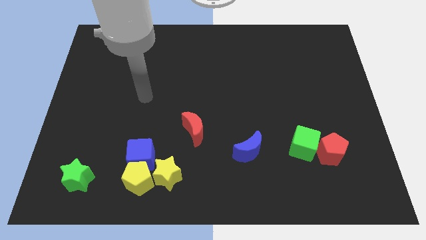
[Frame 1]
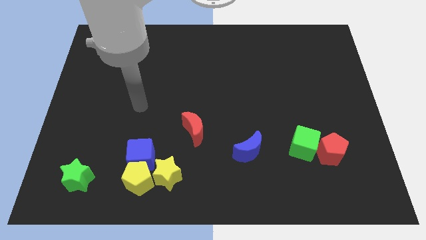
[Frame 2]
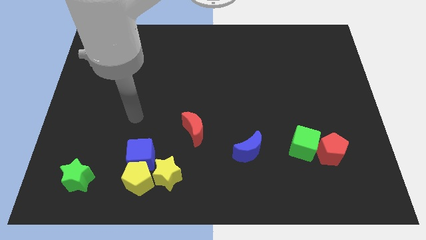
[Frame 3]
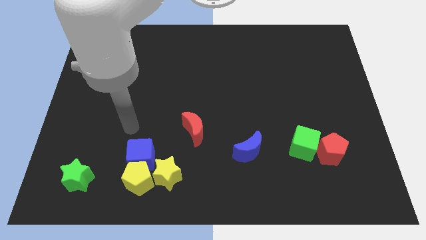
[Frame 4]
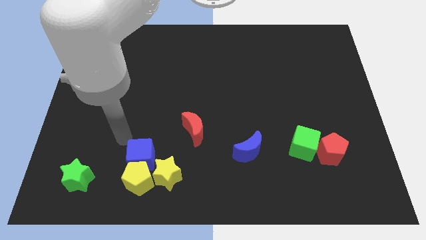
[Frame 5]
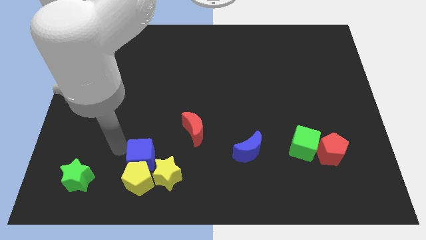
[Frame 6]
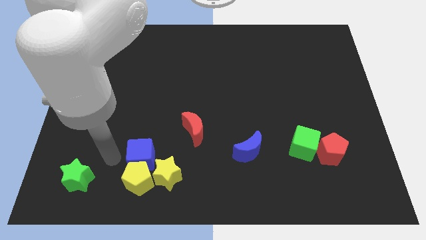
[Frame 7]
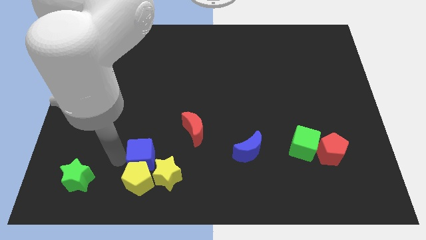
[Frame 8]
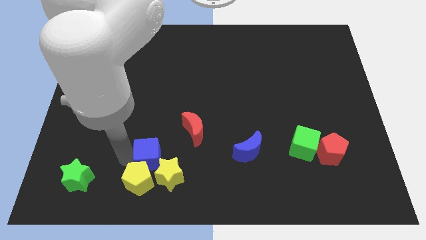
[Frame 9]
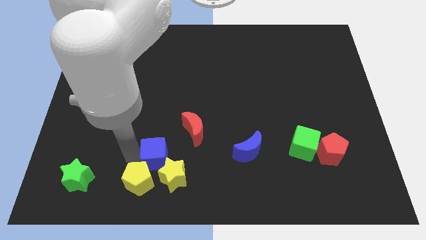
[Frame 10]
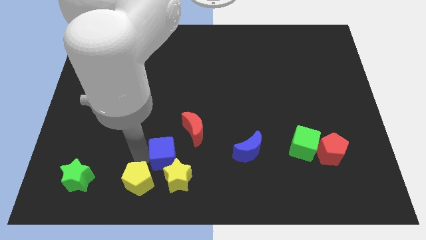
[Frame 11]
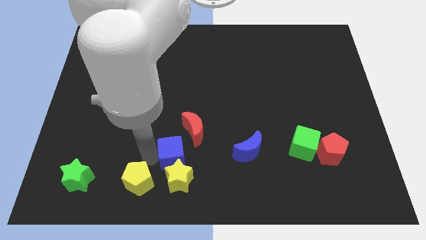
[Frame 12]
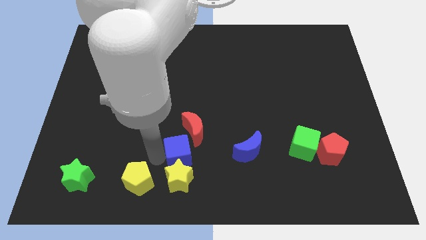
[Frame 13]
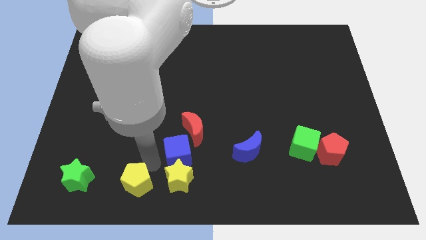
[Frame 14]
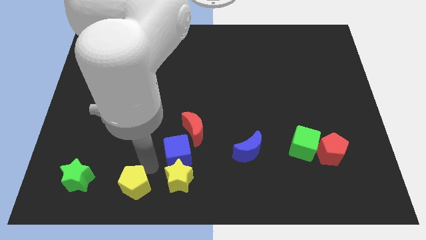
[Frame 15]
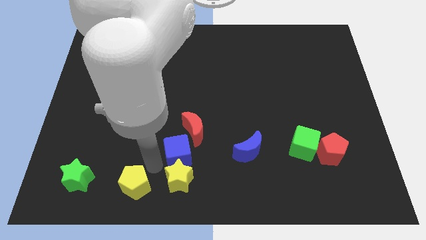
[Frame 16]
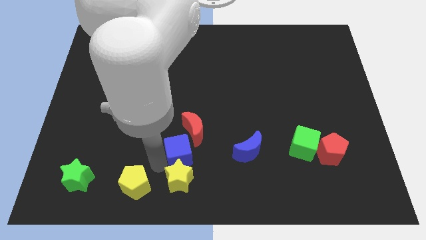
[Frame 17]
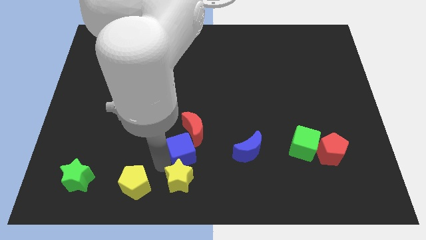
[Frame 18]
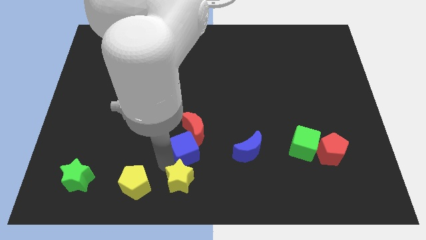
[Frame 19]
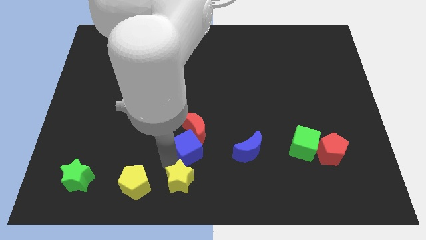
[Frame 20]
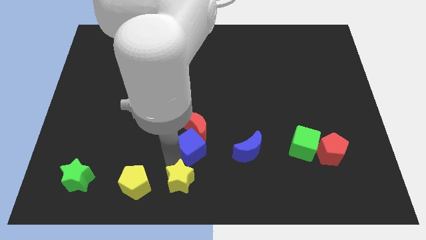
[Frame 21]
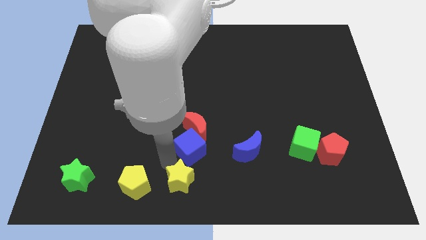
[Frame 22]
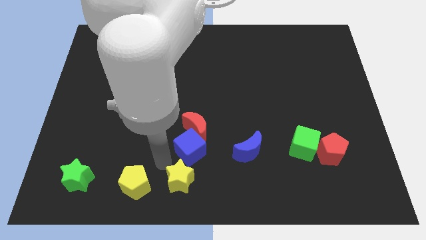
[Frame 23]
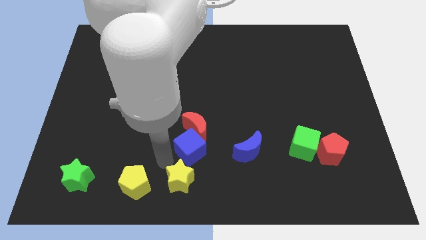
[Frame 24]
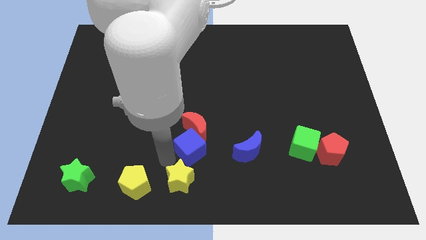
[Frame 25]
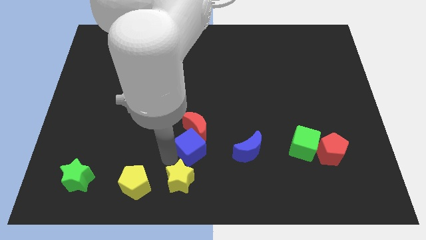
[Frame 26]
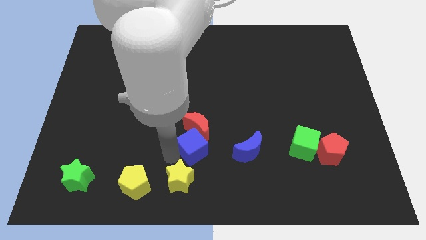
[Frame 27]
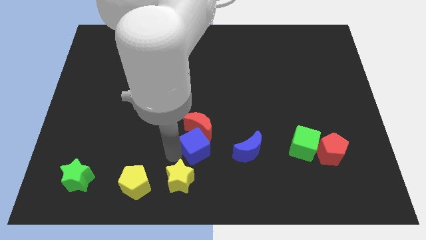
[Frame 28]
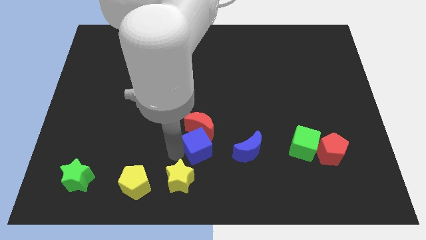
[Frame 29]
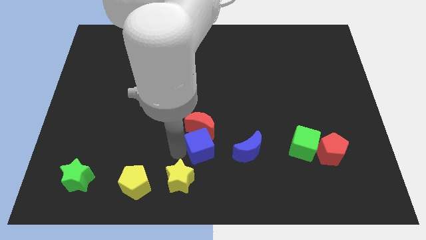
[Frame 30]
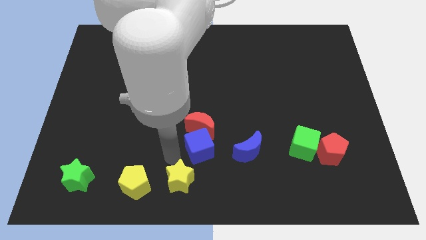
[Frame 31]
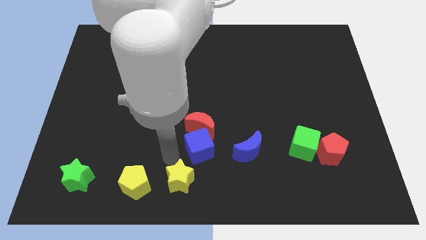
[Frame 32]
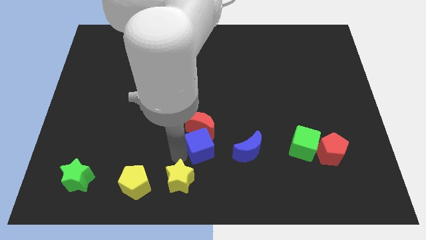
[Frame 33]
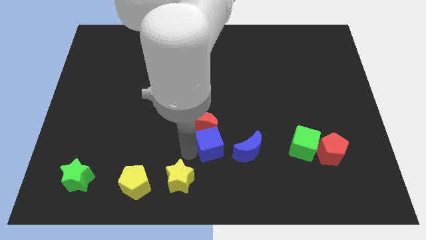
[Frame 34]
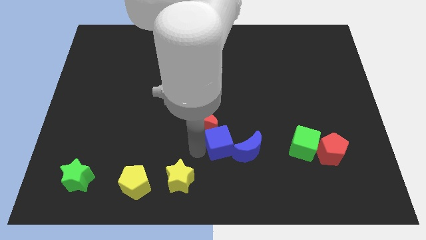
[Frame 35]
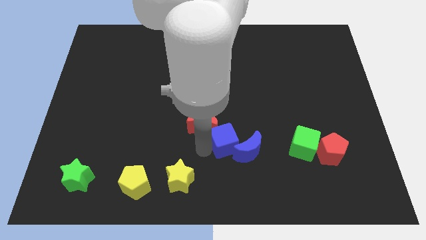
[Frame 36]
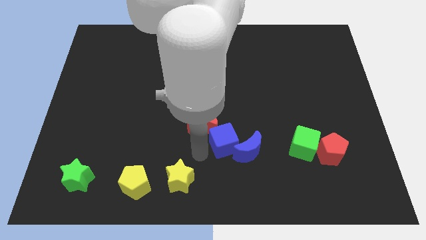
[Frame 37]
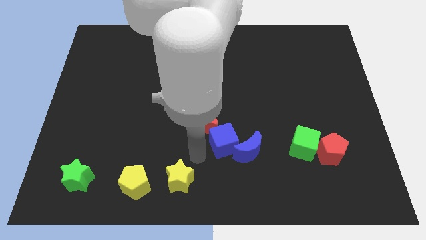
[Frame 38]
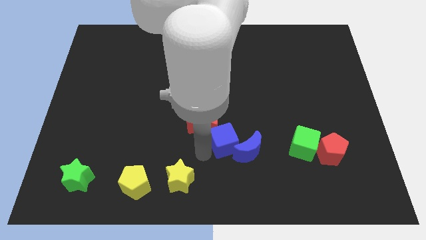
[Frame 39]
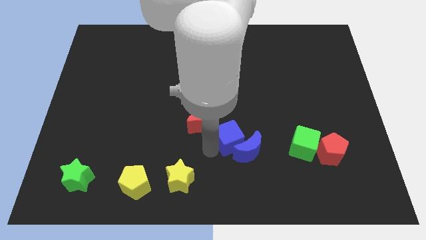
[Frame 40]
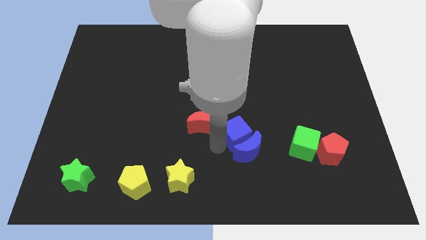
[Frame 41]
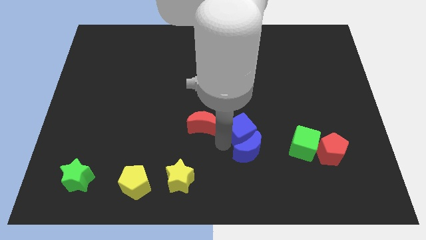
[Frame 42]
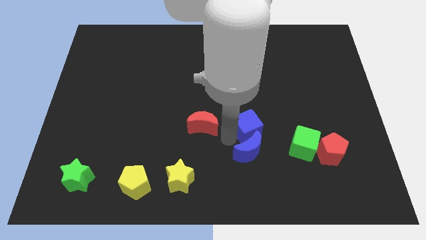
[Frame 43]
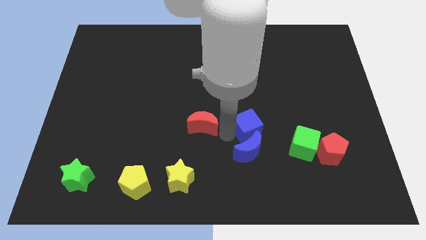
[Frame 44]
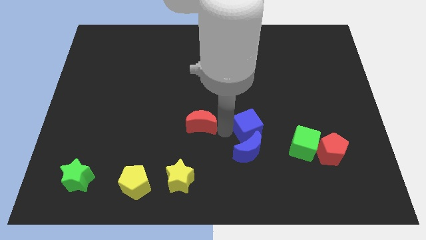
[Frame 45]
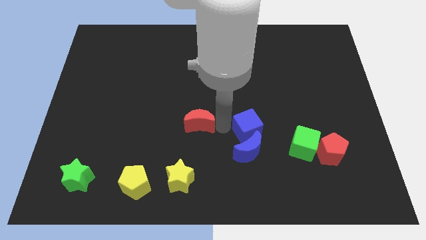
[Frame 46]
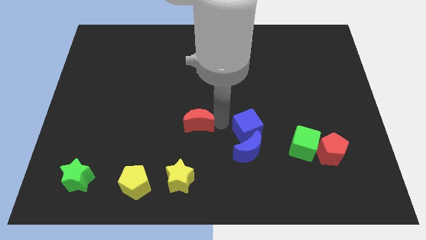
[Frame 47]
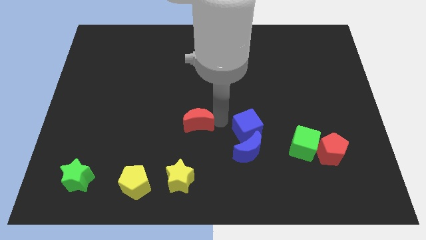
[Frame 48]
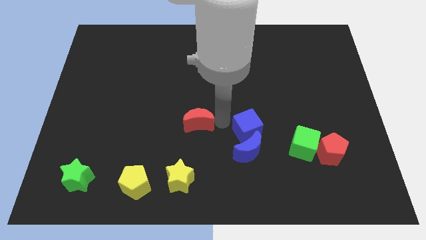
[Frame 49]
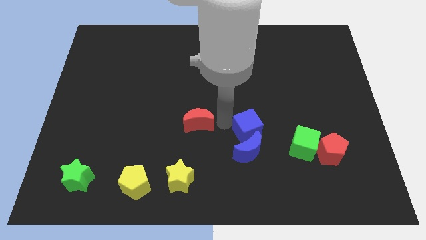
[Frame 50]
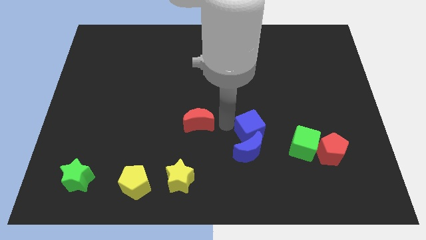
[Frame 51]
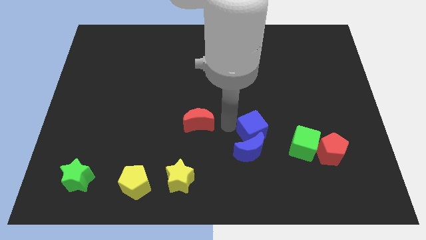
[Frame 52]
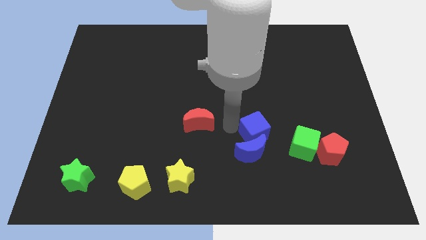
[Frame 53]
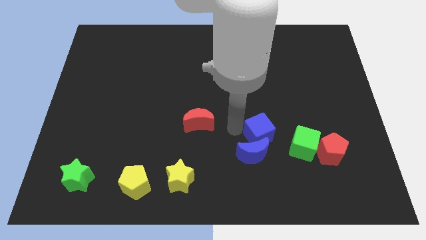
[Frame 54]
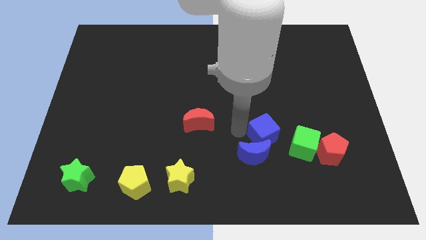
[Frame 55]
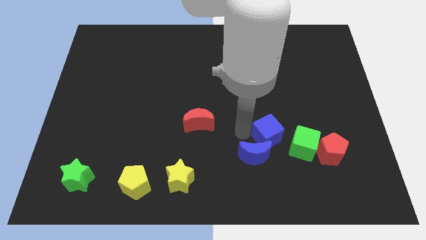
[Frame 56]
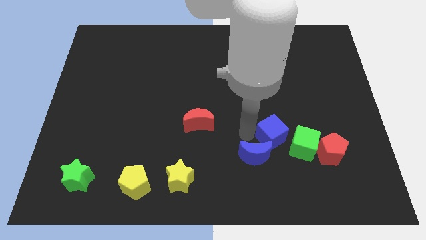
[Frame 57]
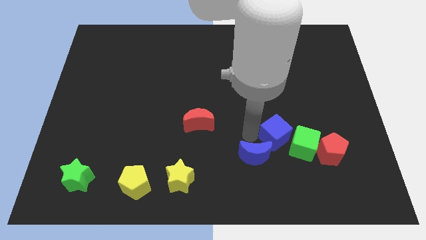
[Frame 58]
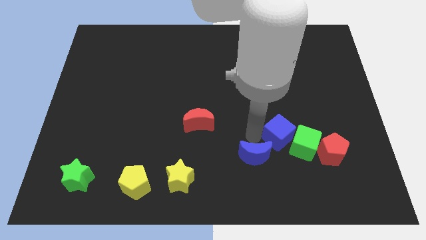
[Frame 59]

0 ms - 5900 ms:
put the blue cube next to the green cube

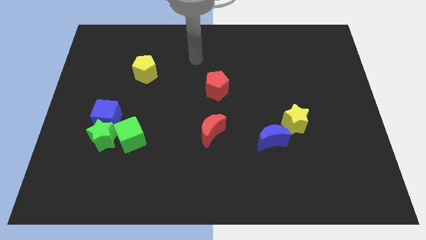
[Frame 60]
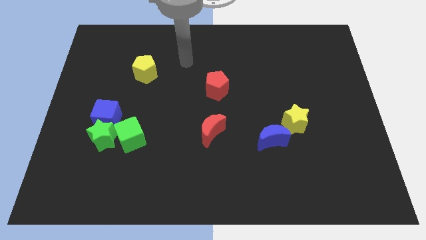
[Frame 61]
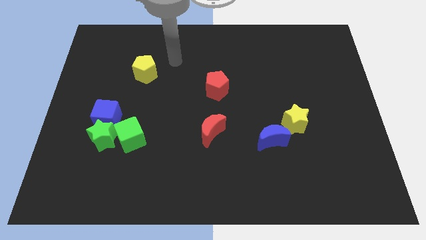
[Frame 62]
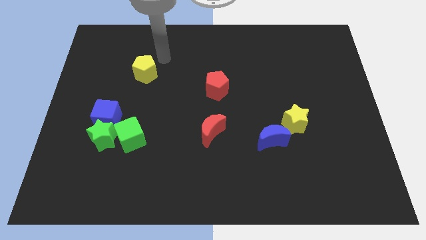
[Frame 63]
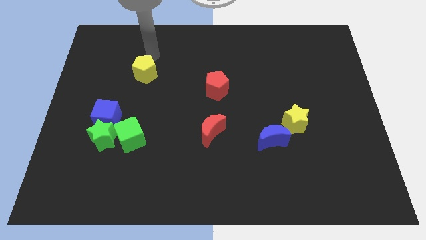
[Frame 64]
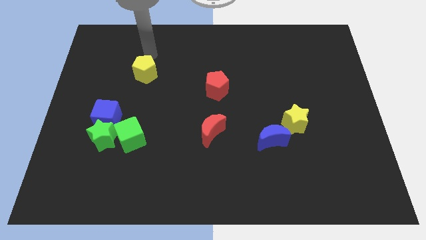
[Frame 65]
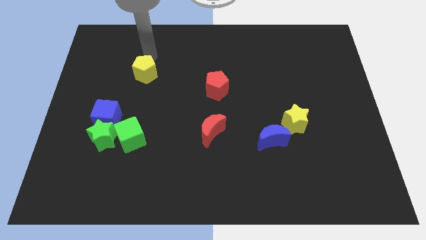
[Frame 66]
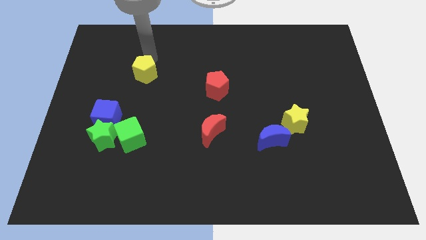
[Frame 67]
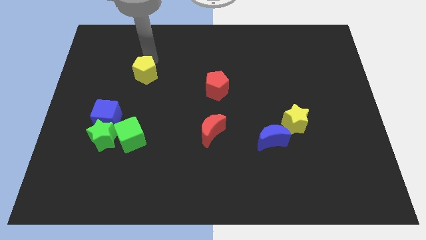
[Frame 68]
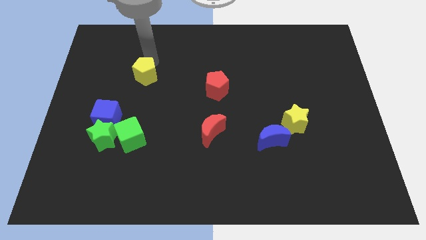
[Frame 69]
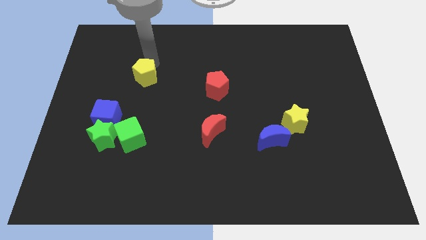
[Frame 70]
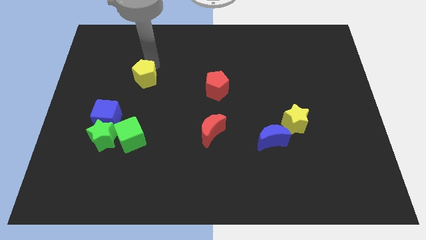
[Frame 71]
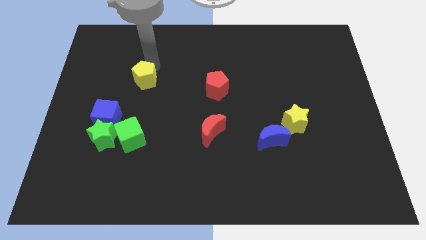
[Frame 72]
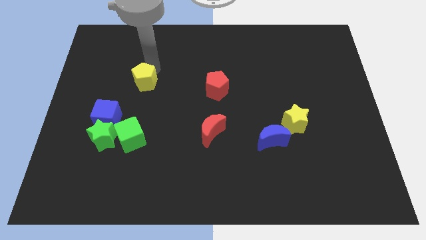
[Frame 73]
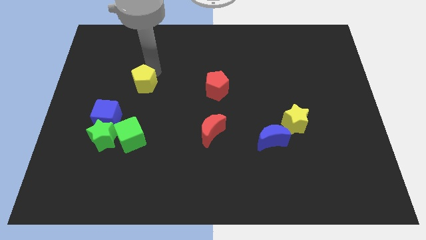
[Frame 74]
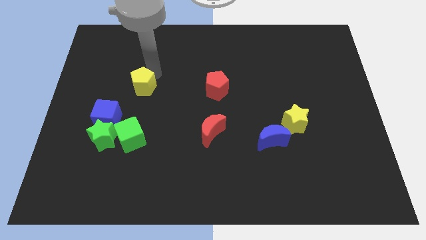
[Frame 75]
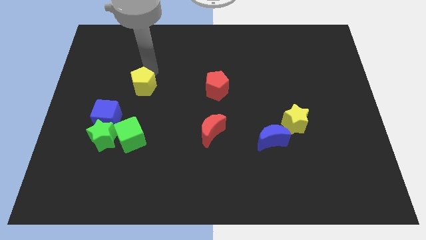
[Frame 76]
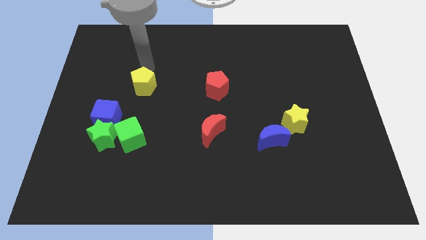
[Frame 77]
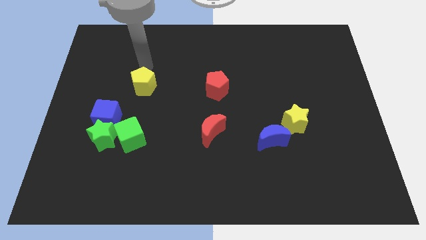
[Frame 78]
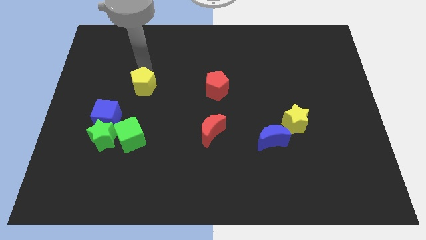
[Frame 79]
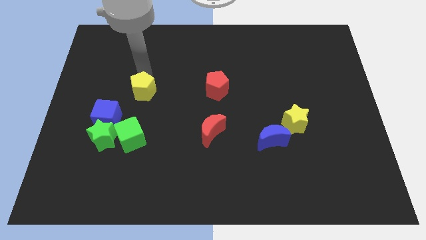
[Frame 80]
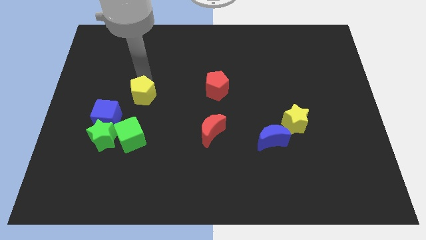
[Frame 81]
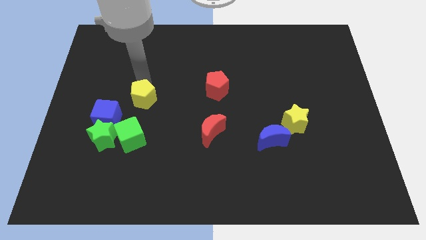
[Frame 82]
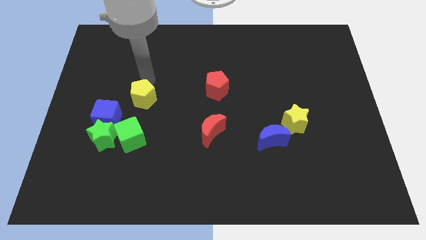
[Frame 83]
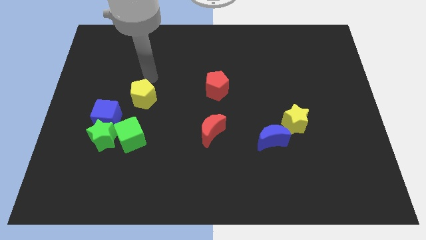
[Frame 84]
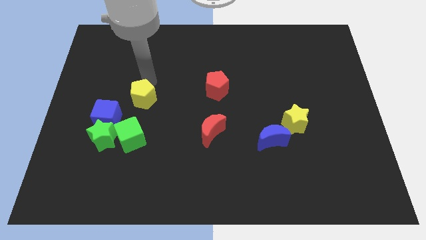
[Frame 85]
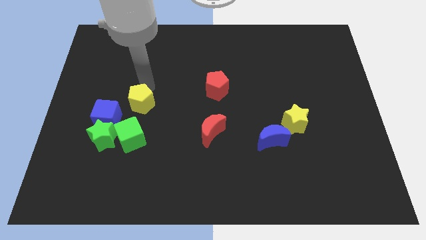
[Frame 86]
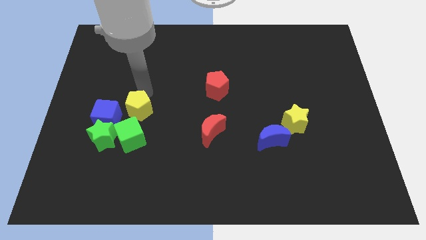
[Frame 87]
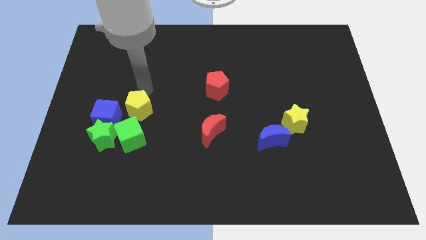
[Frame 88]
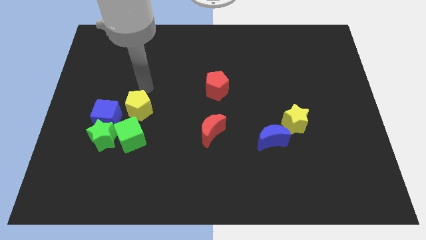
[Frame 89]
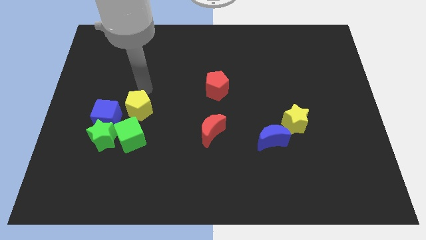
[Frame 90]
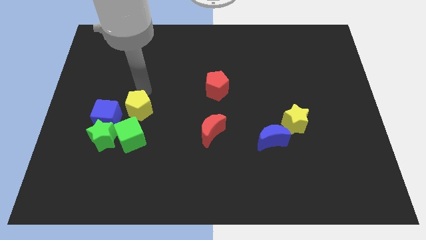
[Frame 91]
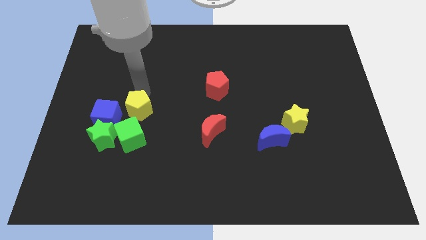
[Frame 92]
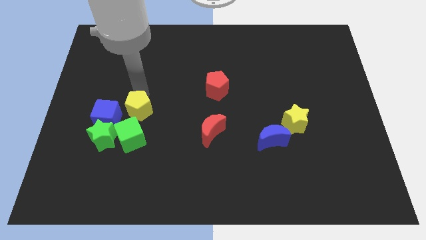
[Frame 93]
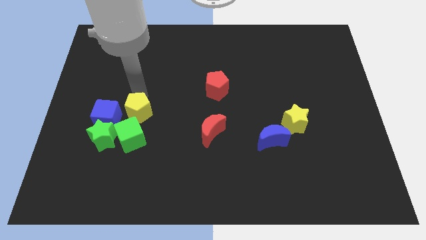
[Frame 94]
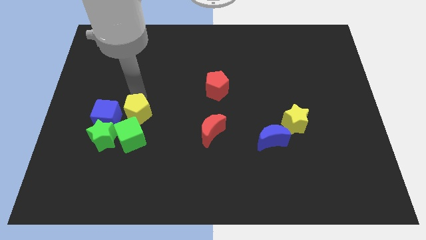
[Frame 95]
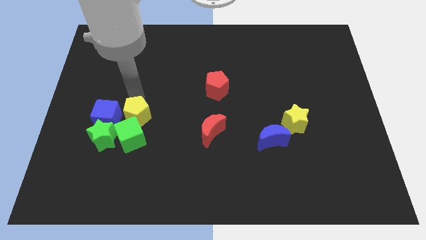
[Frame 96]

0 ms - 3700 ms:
push the yellow pentagon next to the green cube
